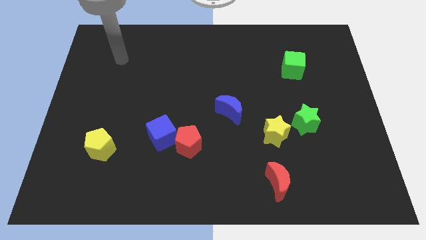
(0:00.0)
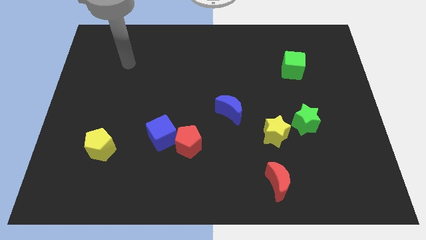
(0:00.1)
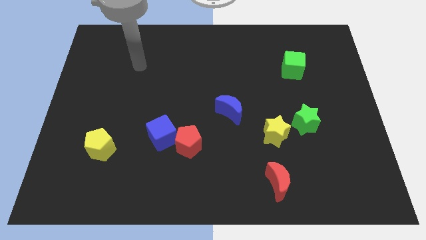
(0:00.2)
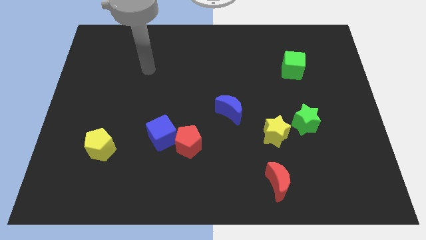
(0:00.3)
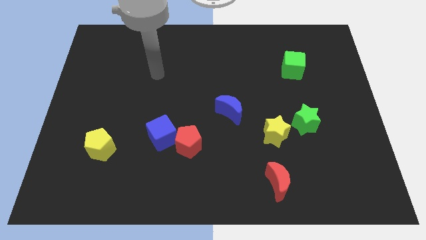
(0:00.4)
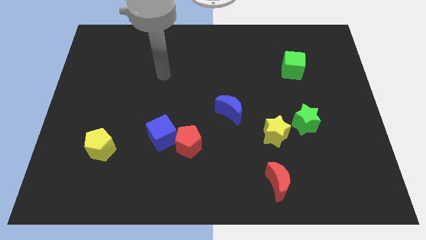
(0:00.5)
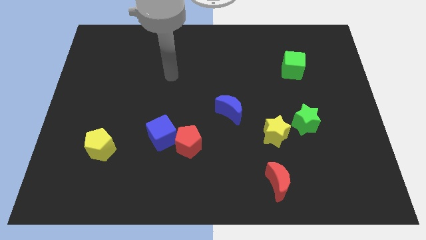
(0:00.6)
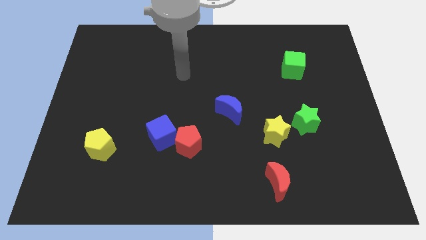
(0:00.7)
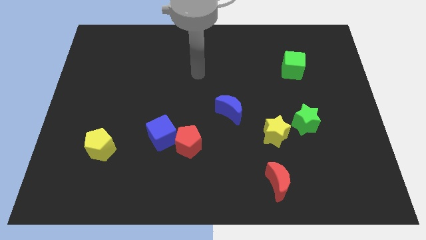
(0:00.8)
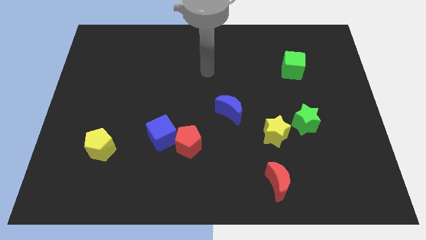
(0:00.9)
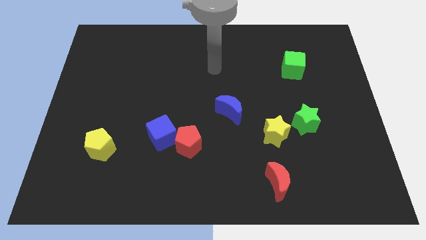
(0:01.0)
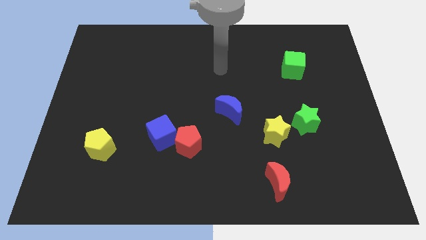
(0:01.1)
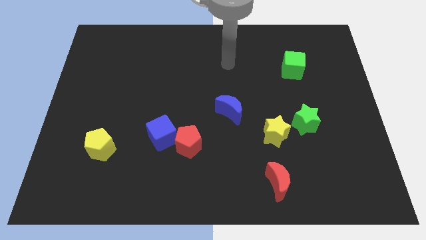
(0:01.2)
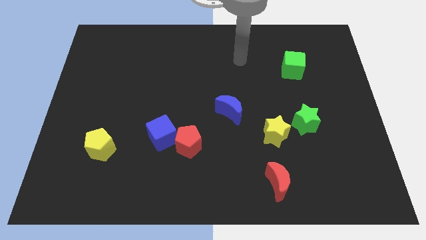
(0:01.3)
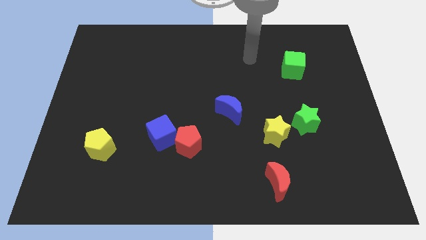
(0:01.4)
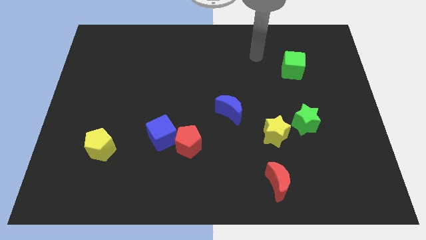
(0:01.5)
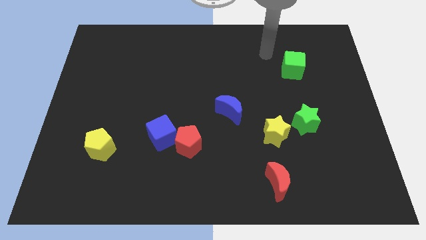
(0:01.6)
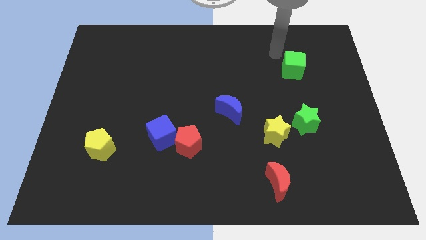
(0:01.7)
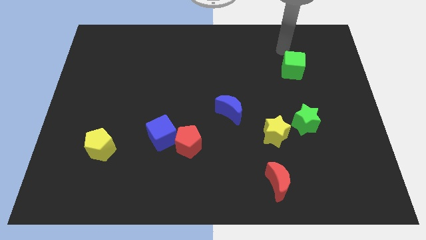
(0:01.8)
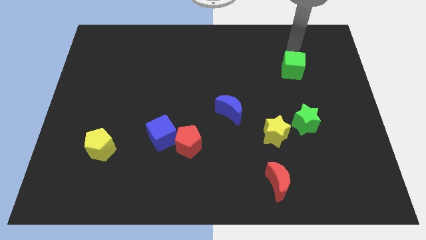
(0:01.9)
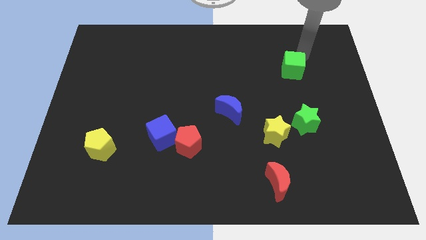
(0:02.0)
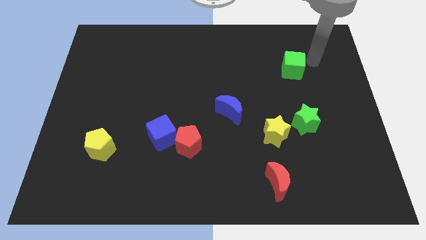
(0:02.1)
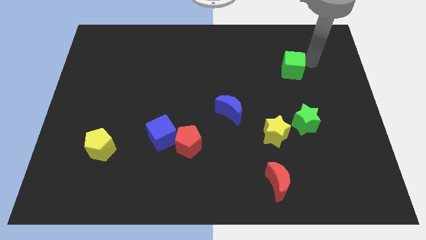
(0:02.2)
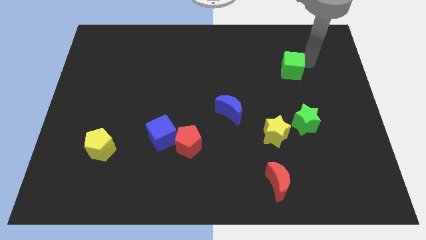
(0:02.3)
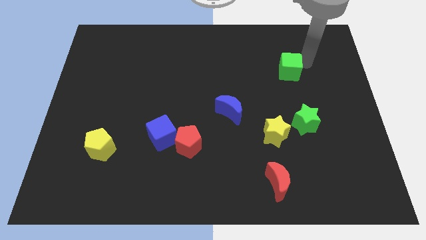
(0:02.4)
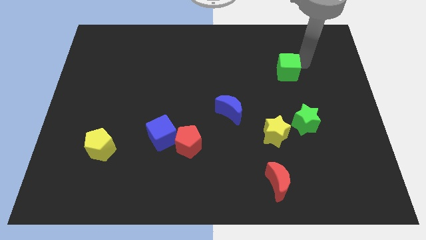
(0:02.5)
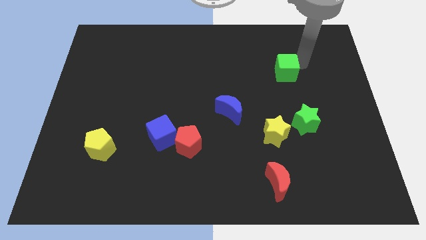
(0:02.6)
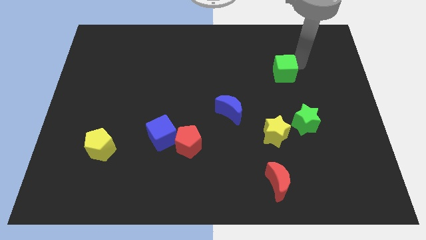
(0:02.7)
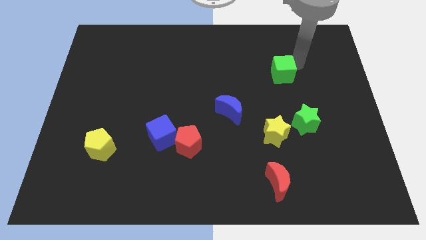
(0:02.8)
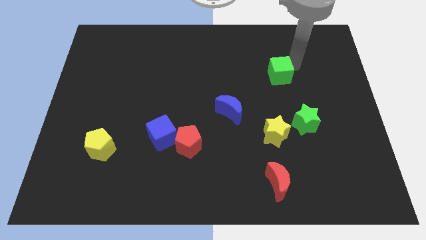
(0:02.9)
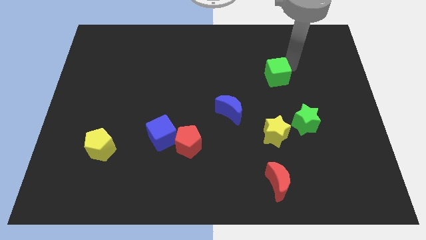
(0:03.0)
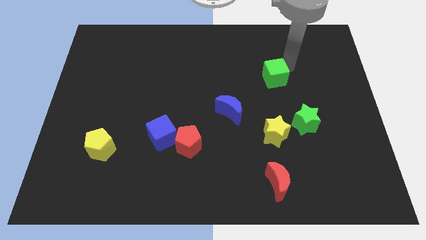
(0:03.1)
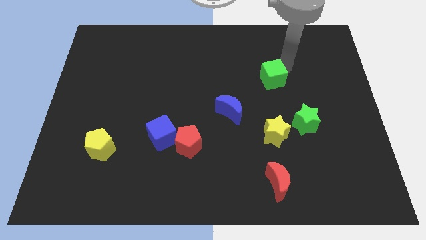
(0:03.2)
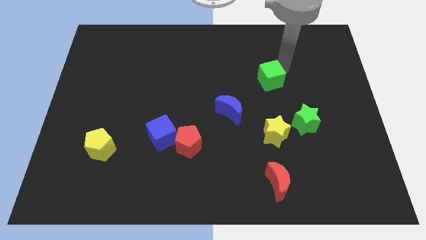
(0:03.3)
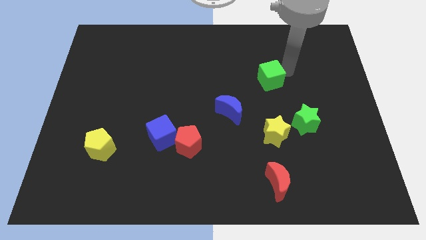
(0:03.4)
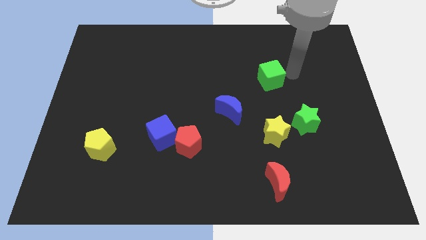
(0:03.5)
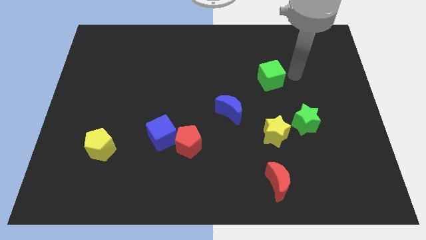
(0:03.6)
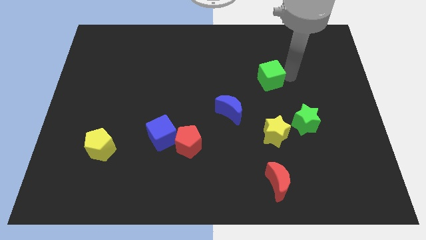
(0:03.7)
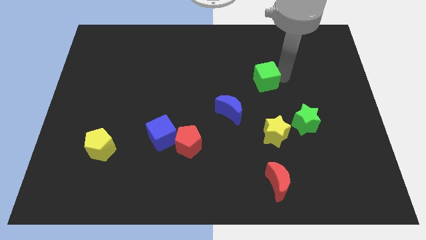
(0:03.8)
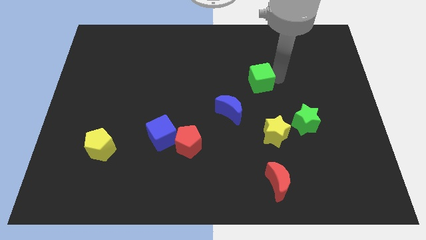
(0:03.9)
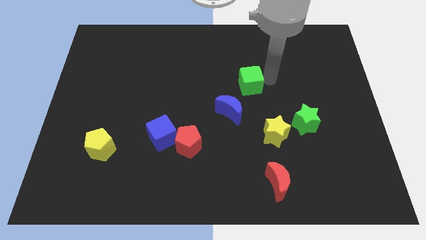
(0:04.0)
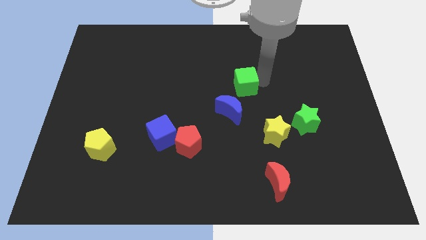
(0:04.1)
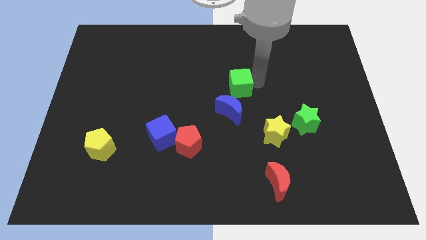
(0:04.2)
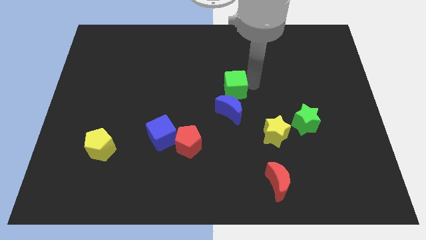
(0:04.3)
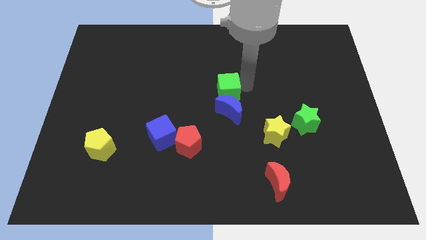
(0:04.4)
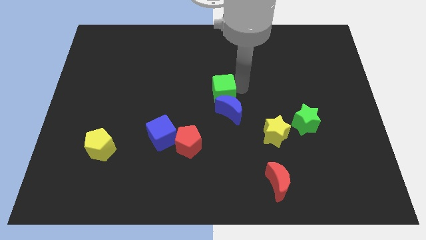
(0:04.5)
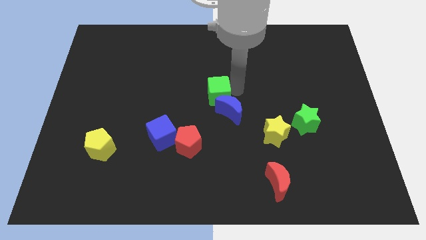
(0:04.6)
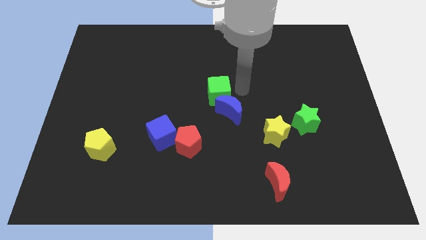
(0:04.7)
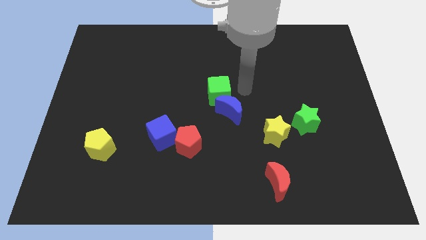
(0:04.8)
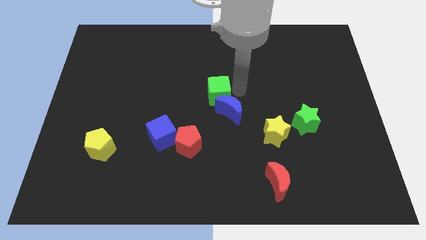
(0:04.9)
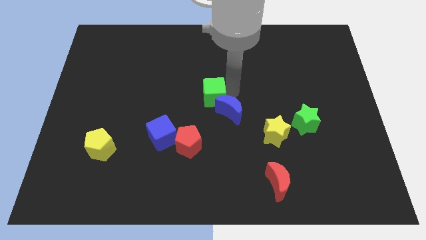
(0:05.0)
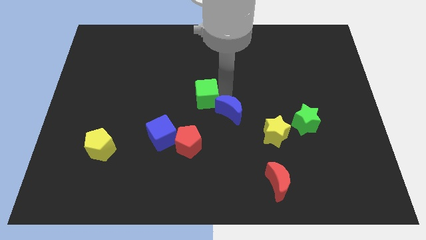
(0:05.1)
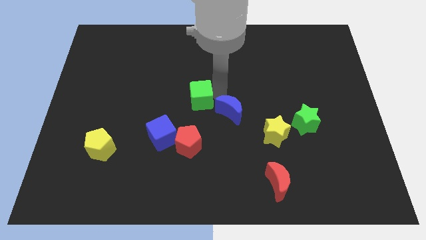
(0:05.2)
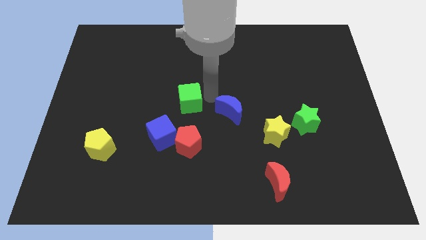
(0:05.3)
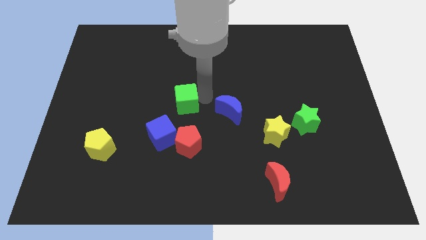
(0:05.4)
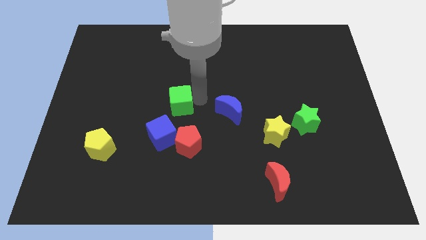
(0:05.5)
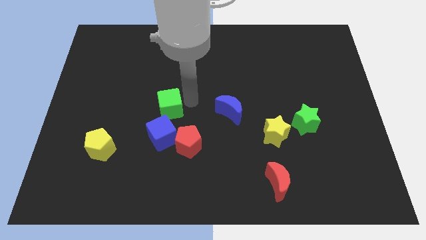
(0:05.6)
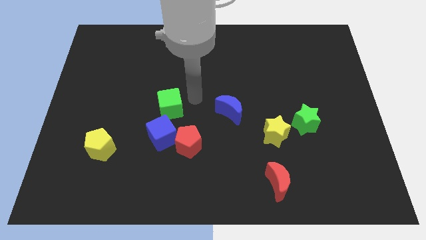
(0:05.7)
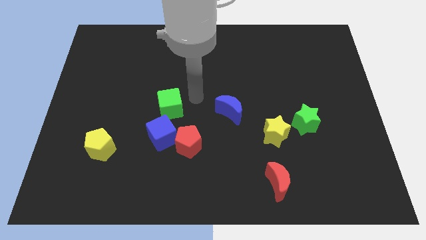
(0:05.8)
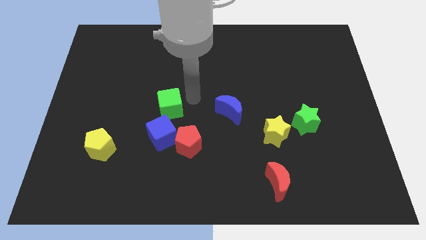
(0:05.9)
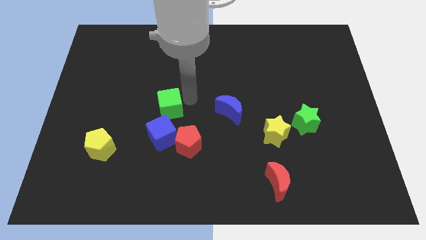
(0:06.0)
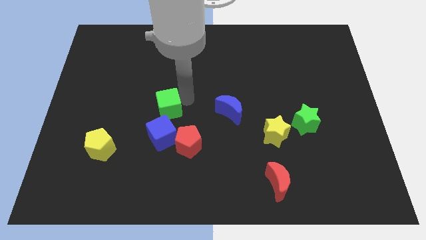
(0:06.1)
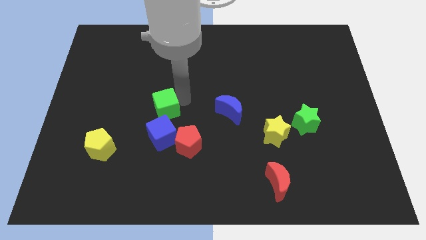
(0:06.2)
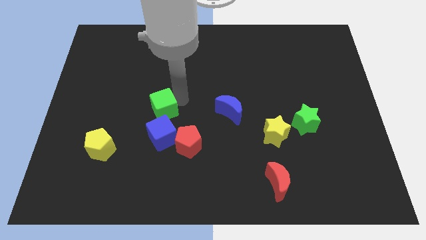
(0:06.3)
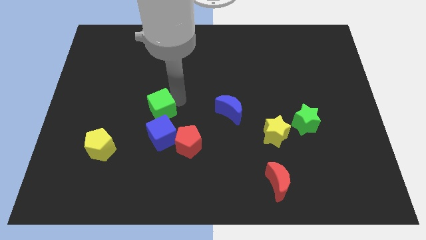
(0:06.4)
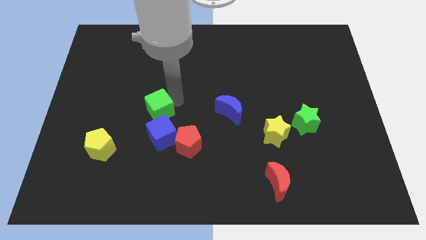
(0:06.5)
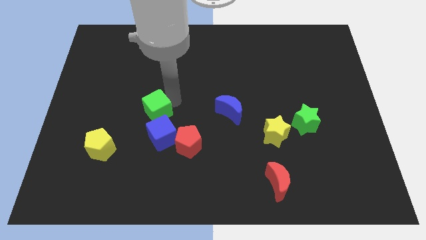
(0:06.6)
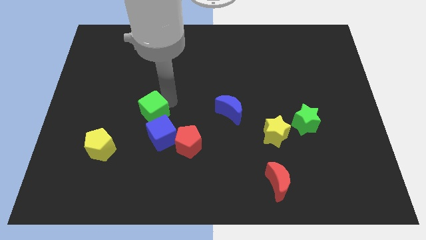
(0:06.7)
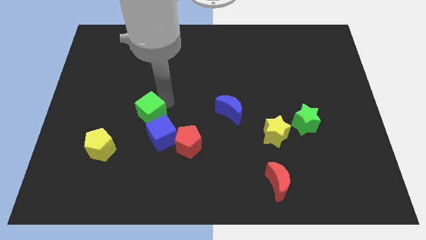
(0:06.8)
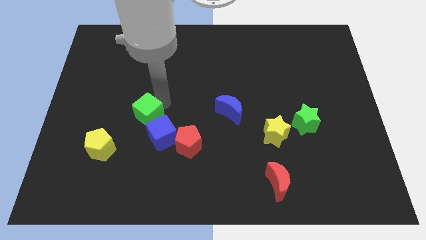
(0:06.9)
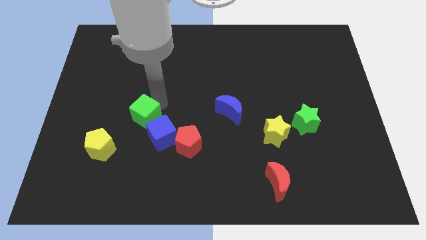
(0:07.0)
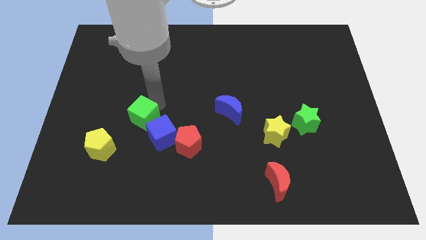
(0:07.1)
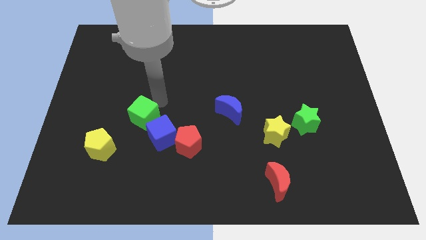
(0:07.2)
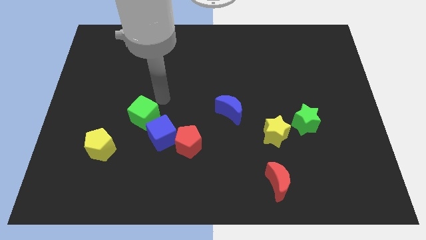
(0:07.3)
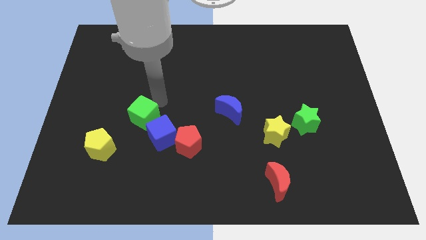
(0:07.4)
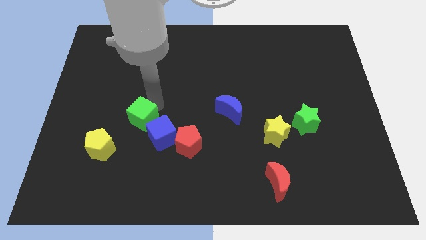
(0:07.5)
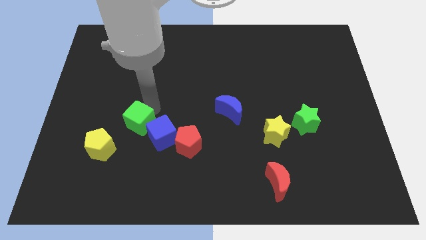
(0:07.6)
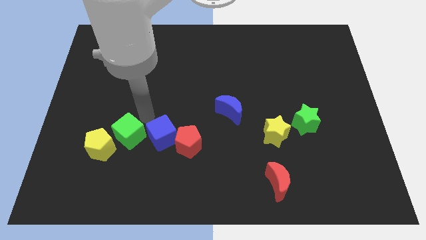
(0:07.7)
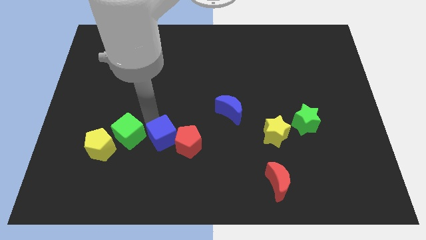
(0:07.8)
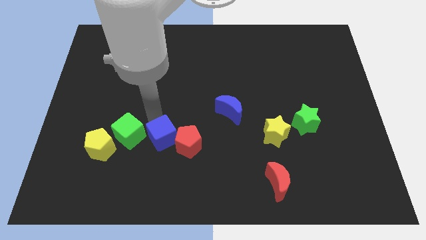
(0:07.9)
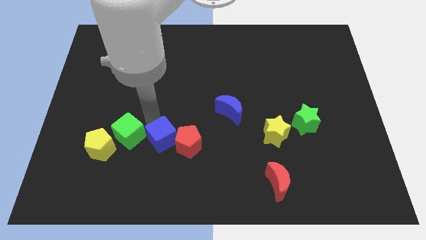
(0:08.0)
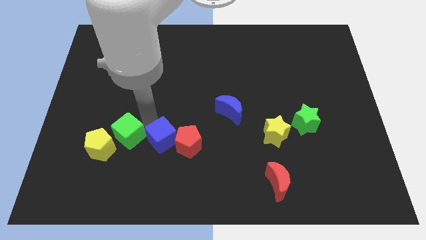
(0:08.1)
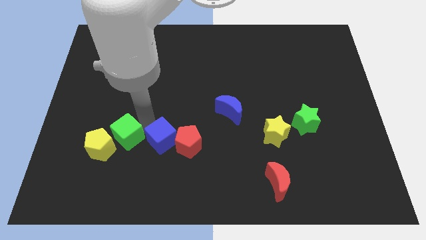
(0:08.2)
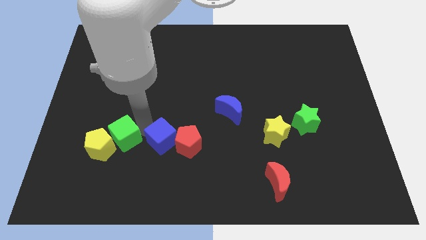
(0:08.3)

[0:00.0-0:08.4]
push the green cube towards the yellow pentagon
